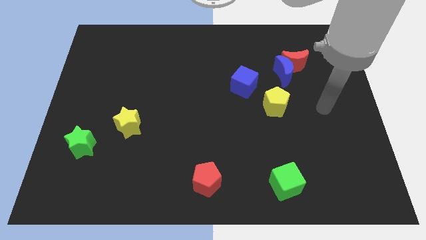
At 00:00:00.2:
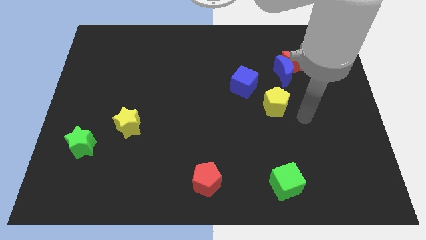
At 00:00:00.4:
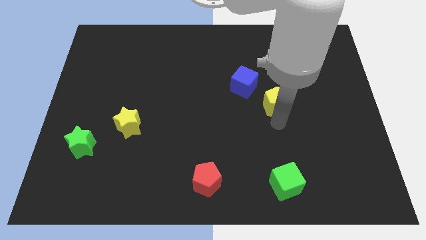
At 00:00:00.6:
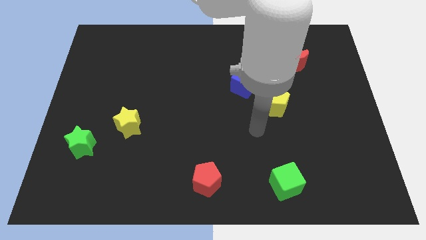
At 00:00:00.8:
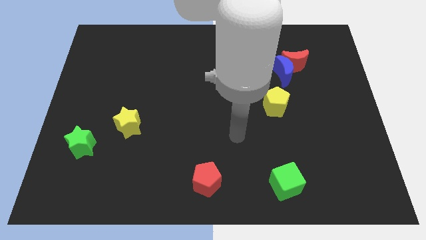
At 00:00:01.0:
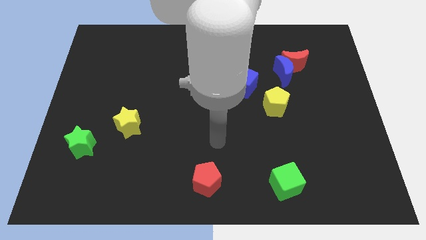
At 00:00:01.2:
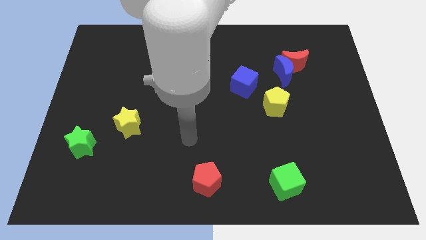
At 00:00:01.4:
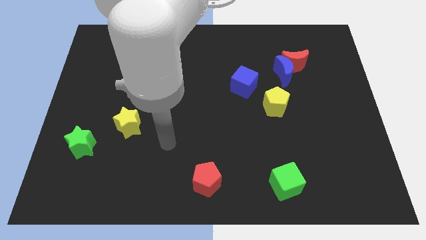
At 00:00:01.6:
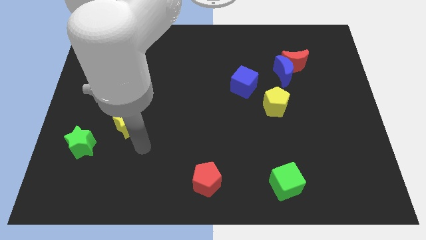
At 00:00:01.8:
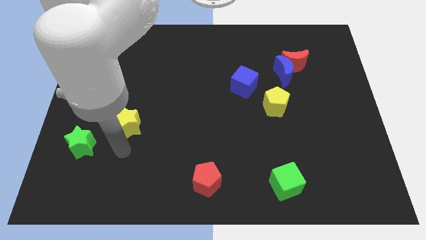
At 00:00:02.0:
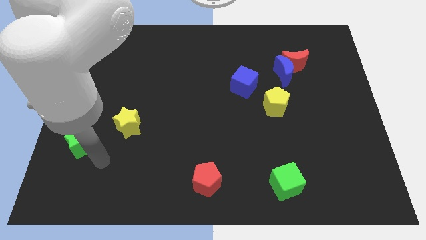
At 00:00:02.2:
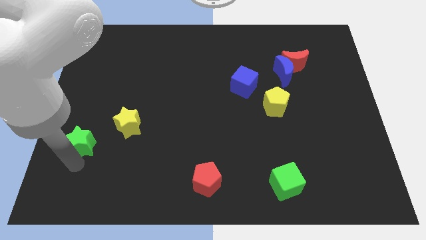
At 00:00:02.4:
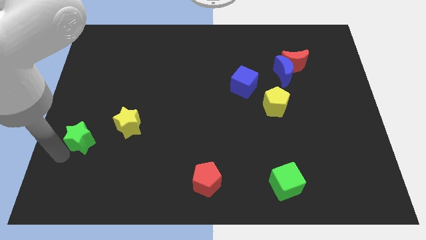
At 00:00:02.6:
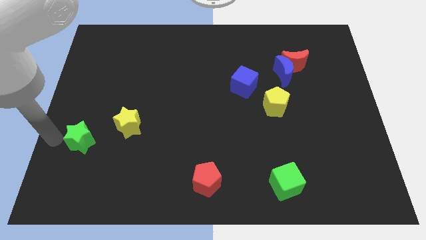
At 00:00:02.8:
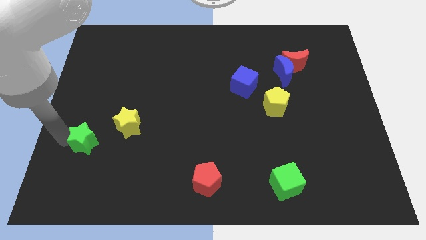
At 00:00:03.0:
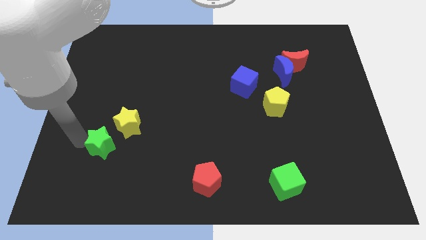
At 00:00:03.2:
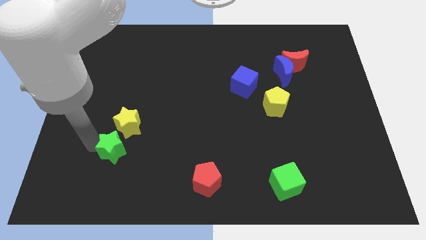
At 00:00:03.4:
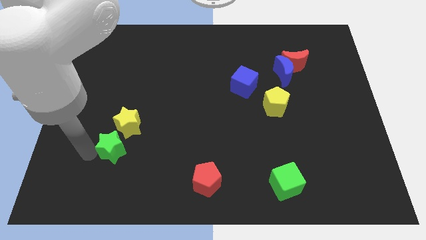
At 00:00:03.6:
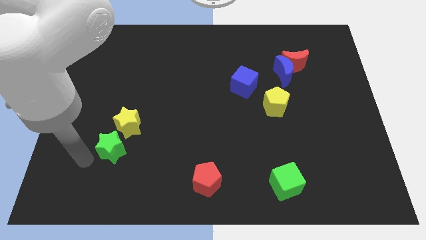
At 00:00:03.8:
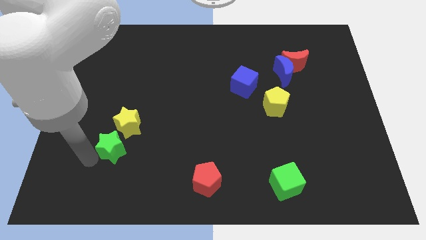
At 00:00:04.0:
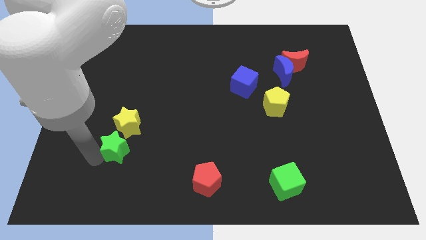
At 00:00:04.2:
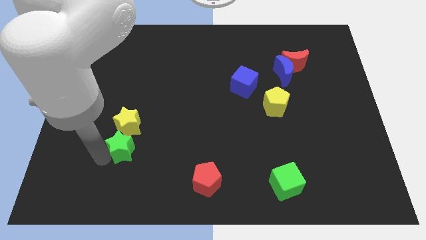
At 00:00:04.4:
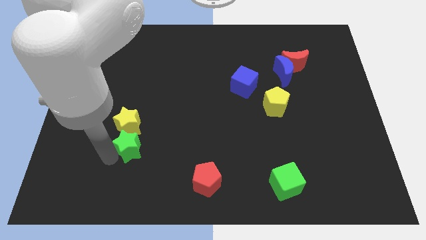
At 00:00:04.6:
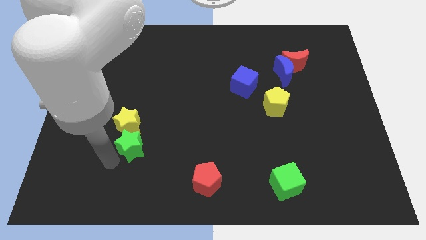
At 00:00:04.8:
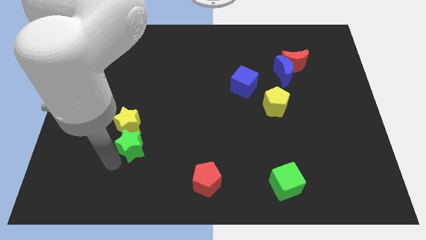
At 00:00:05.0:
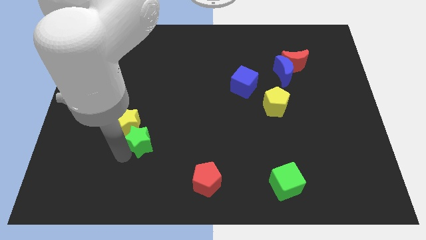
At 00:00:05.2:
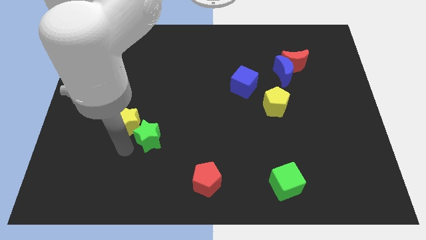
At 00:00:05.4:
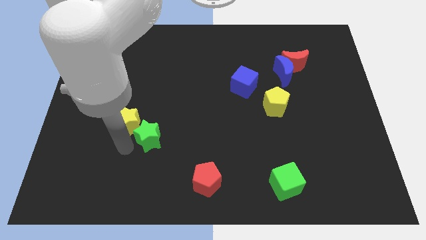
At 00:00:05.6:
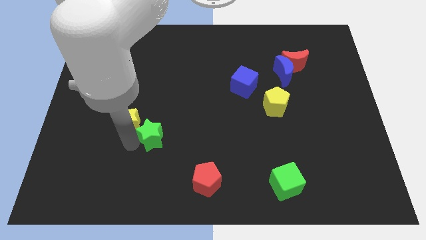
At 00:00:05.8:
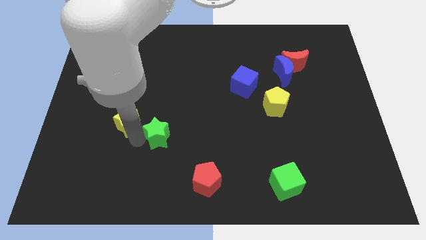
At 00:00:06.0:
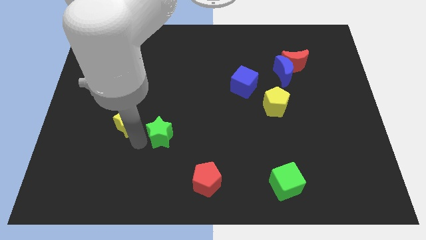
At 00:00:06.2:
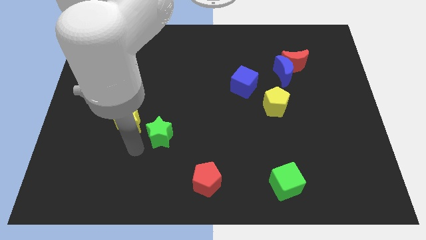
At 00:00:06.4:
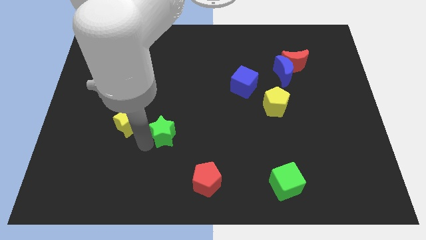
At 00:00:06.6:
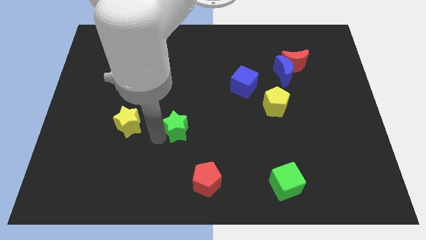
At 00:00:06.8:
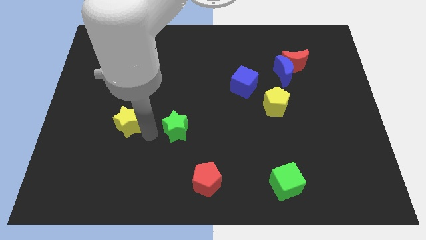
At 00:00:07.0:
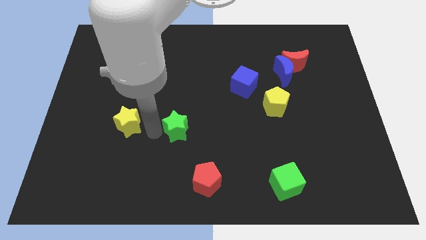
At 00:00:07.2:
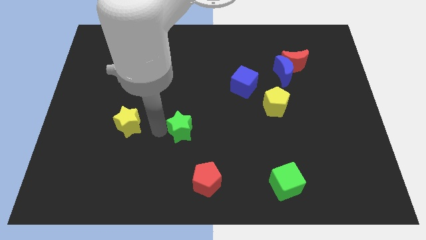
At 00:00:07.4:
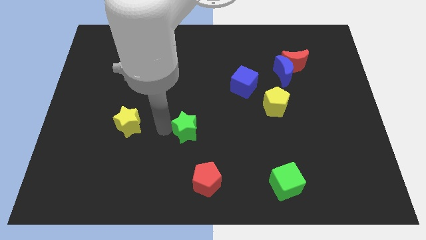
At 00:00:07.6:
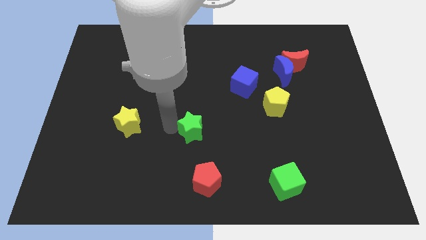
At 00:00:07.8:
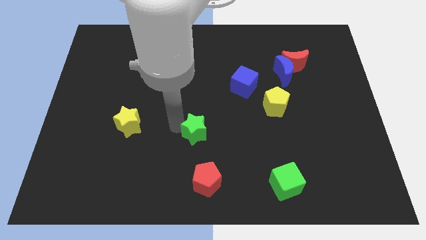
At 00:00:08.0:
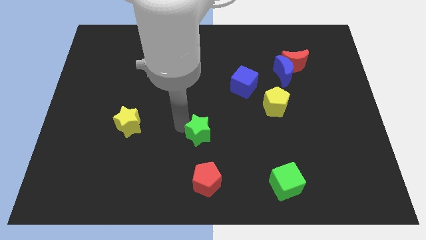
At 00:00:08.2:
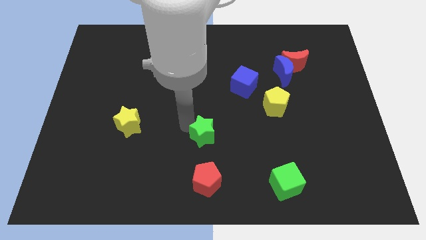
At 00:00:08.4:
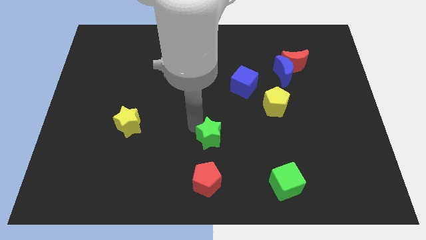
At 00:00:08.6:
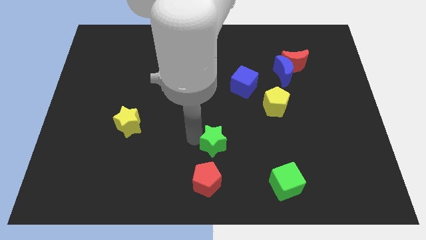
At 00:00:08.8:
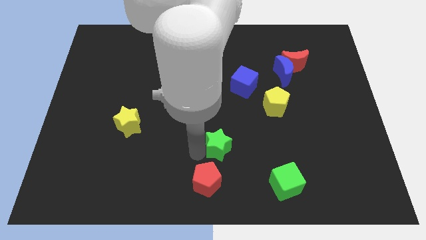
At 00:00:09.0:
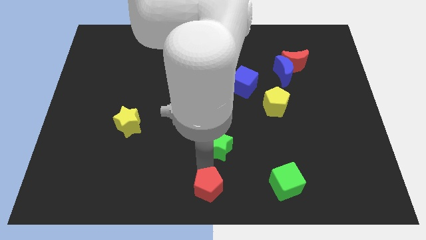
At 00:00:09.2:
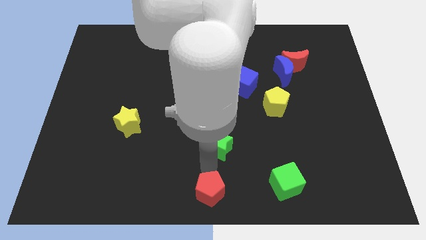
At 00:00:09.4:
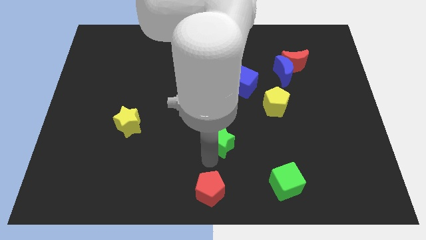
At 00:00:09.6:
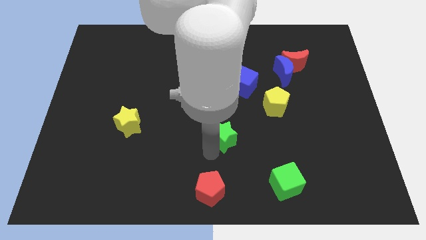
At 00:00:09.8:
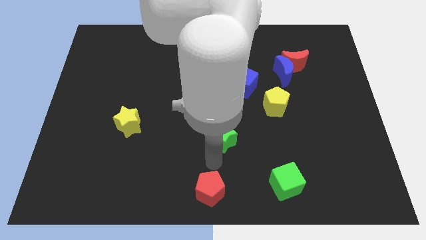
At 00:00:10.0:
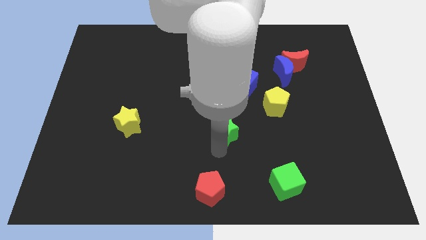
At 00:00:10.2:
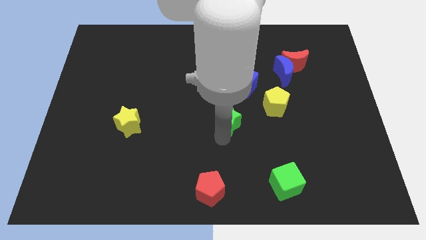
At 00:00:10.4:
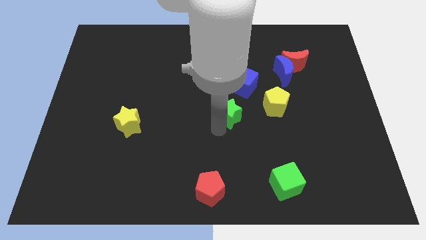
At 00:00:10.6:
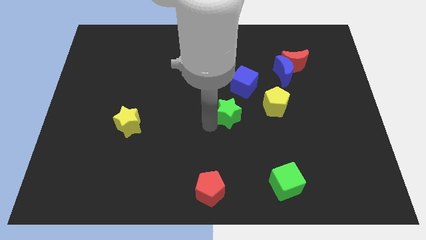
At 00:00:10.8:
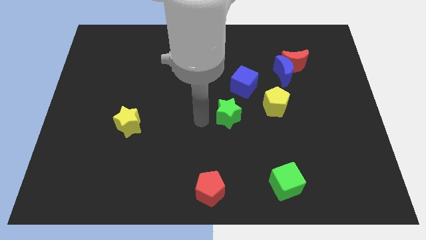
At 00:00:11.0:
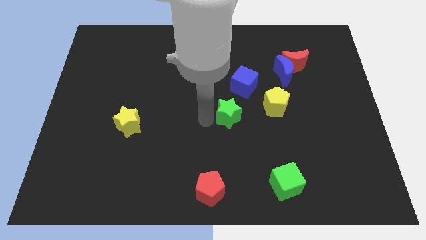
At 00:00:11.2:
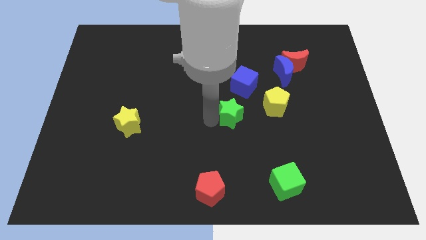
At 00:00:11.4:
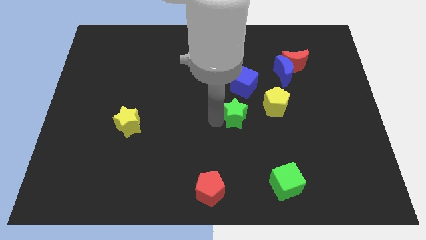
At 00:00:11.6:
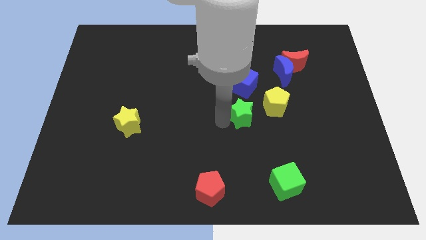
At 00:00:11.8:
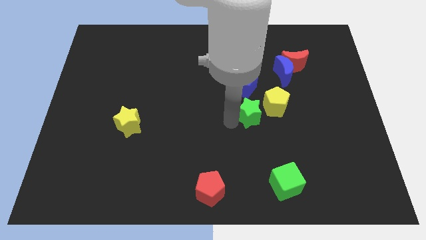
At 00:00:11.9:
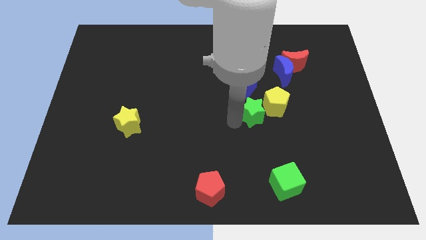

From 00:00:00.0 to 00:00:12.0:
move the green star to the yellow pentagon

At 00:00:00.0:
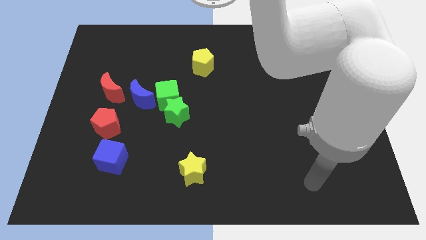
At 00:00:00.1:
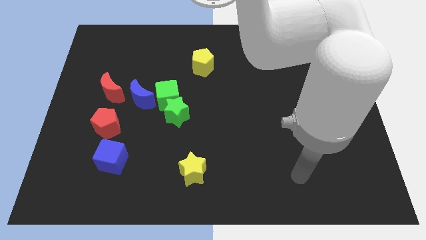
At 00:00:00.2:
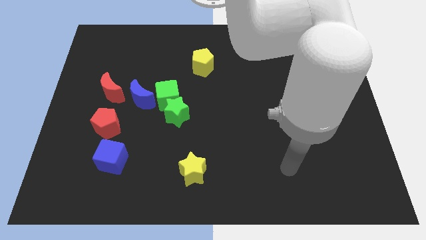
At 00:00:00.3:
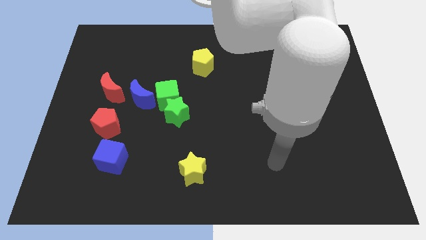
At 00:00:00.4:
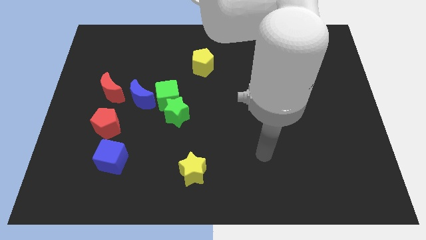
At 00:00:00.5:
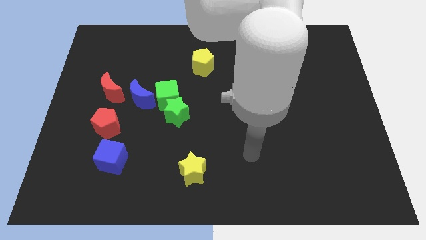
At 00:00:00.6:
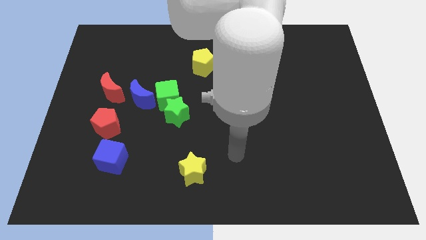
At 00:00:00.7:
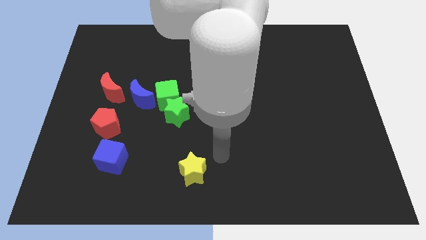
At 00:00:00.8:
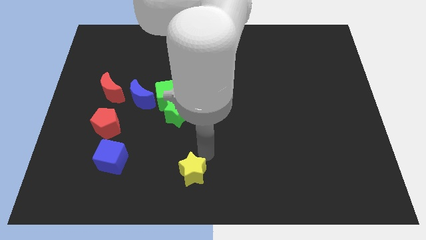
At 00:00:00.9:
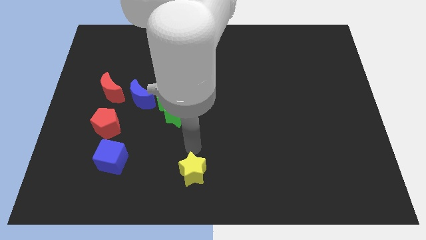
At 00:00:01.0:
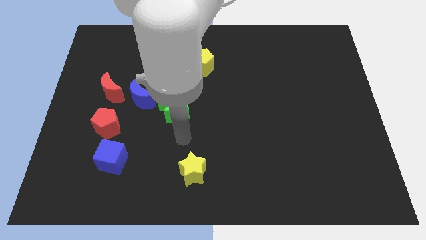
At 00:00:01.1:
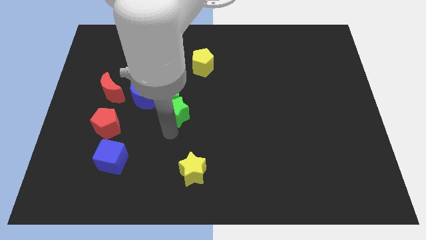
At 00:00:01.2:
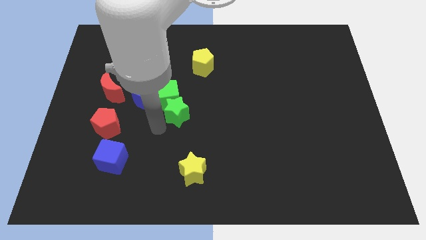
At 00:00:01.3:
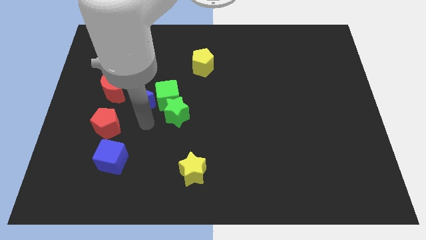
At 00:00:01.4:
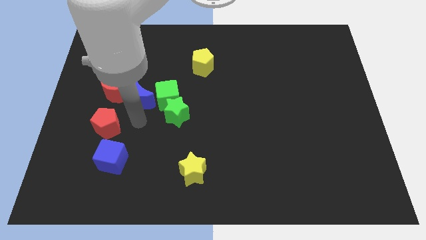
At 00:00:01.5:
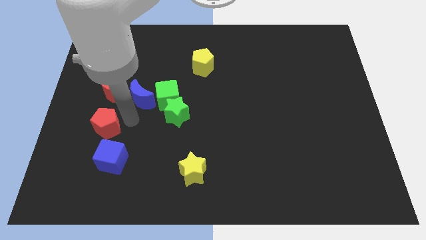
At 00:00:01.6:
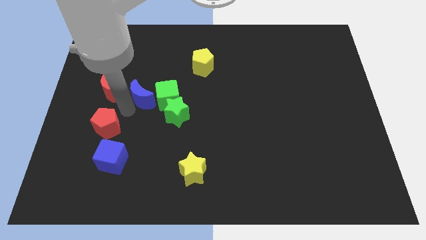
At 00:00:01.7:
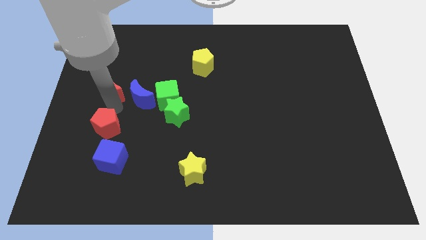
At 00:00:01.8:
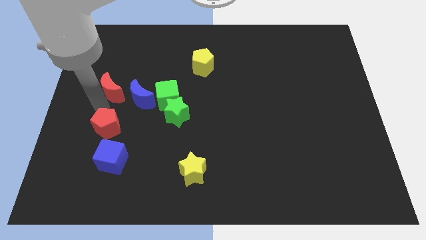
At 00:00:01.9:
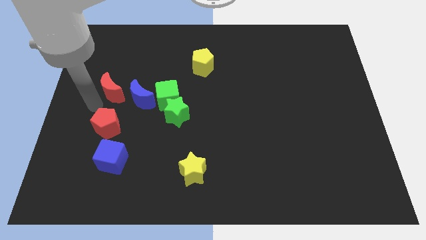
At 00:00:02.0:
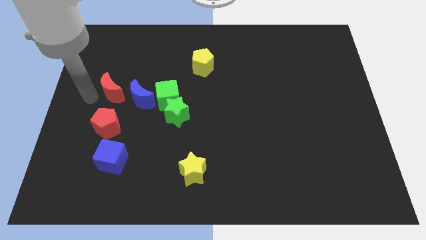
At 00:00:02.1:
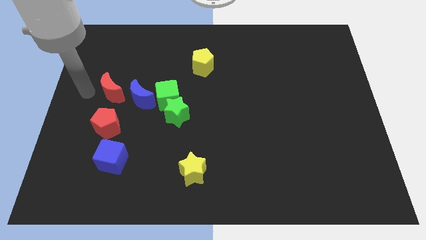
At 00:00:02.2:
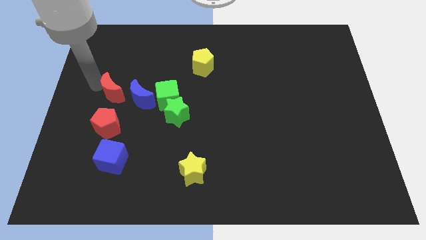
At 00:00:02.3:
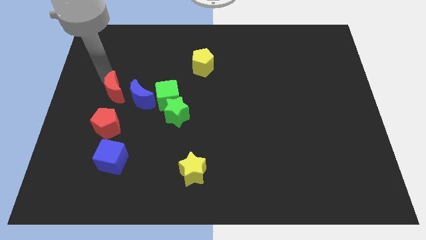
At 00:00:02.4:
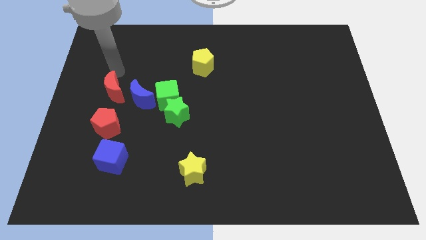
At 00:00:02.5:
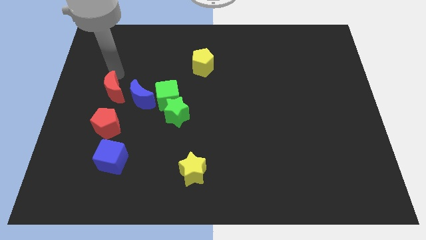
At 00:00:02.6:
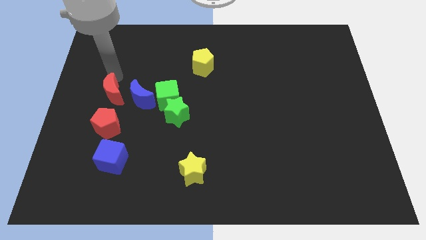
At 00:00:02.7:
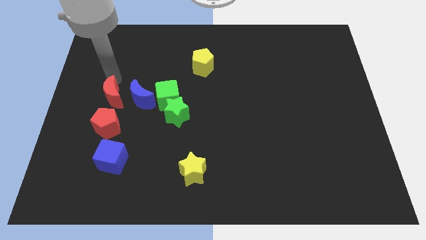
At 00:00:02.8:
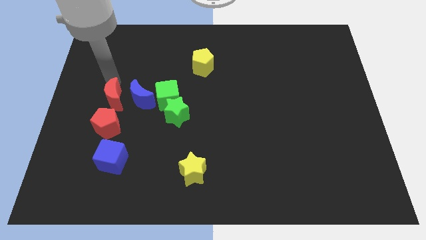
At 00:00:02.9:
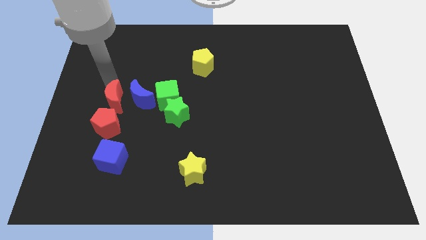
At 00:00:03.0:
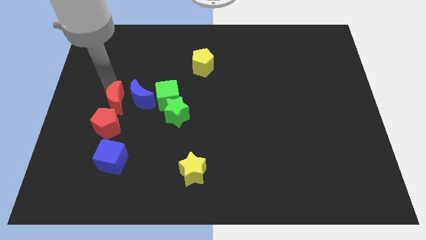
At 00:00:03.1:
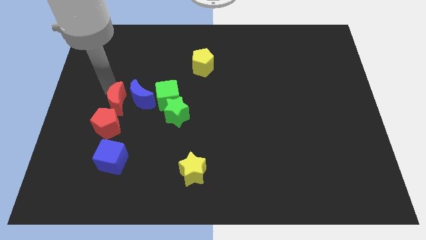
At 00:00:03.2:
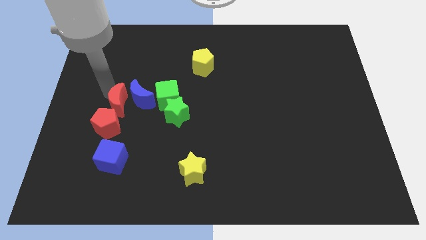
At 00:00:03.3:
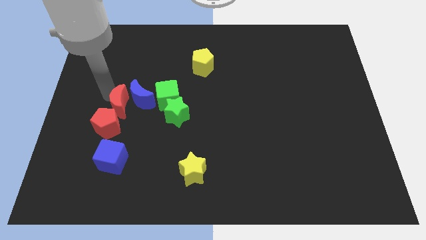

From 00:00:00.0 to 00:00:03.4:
push the red moon towards the red pentagon
